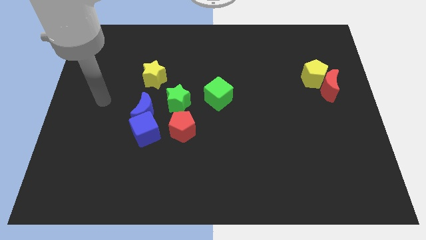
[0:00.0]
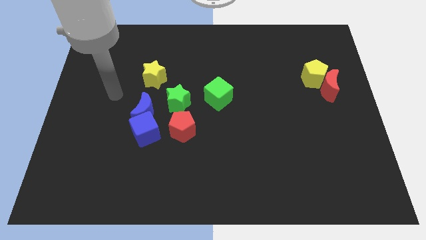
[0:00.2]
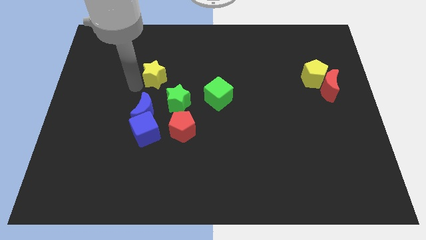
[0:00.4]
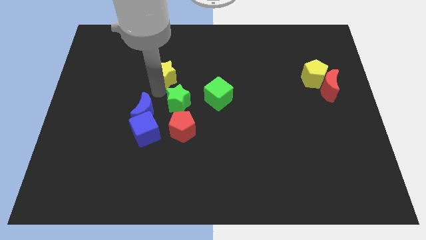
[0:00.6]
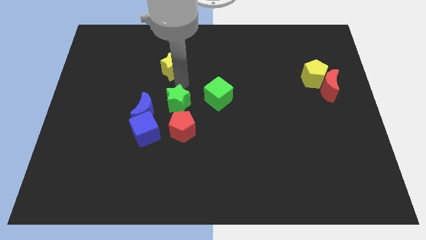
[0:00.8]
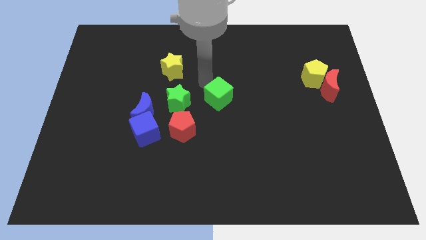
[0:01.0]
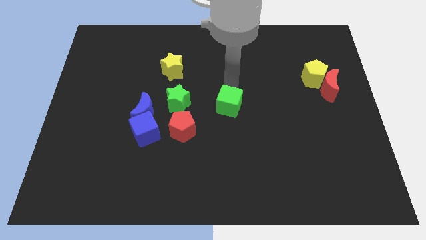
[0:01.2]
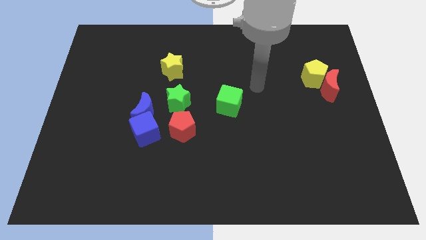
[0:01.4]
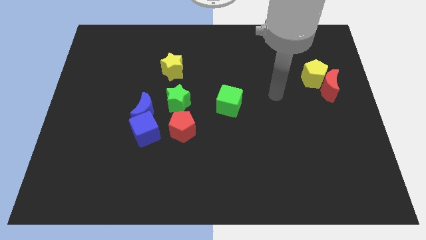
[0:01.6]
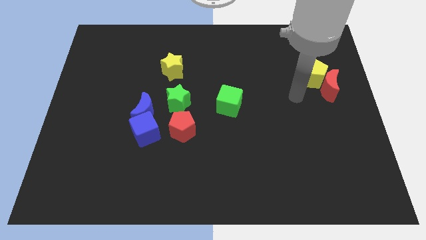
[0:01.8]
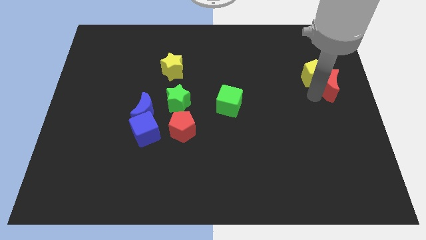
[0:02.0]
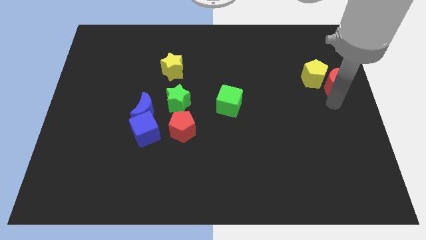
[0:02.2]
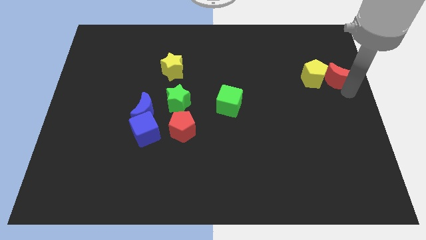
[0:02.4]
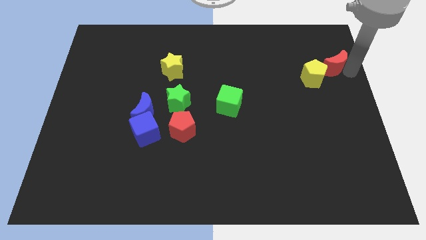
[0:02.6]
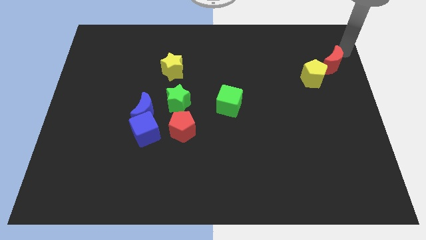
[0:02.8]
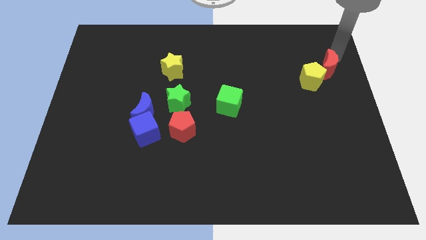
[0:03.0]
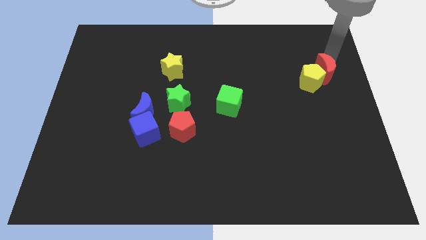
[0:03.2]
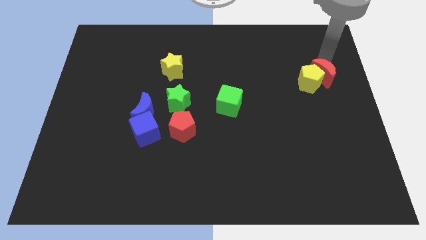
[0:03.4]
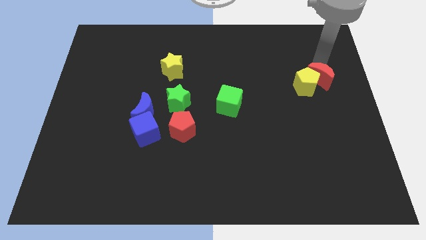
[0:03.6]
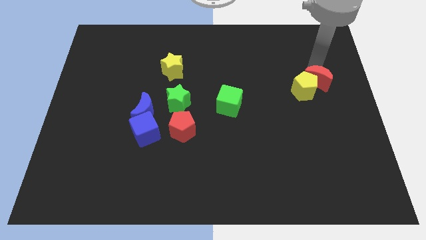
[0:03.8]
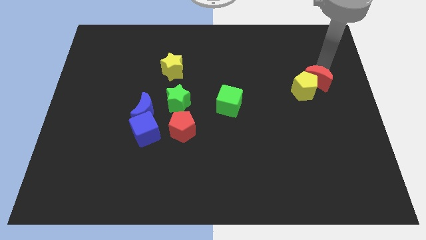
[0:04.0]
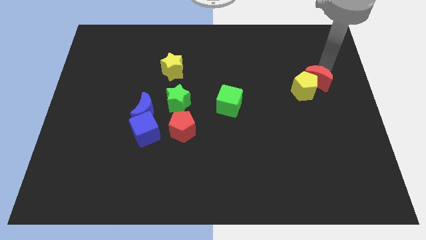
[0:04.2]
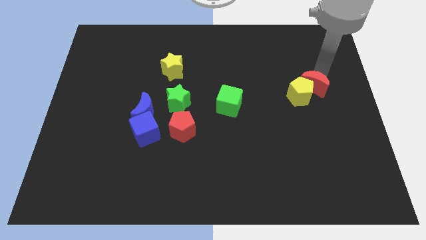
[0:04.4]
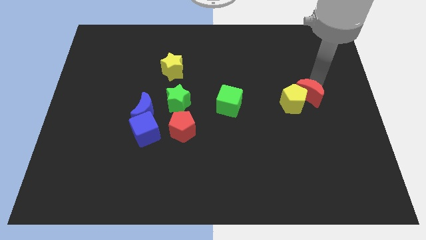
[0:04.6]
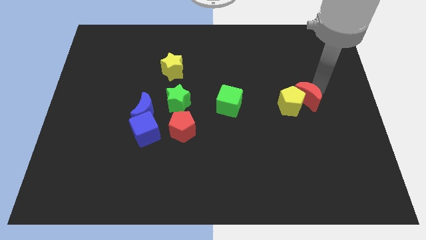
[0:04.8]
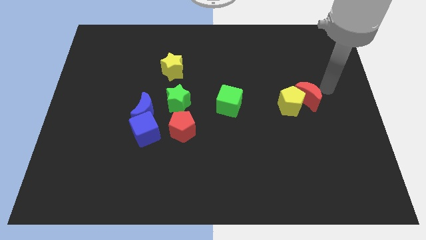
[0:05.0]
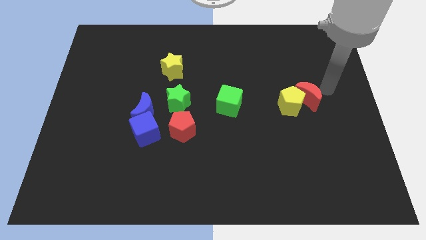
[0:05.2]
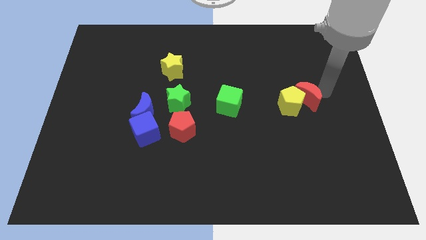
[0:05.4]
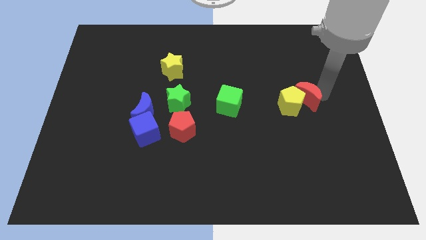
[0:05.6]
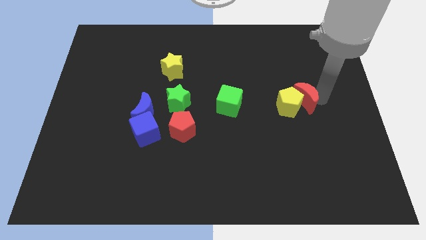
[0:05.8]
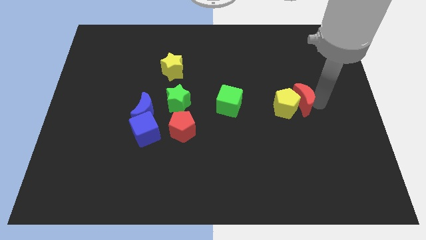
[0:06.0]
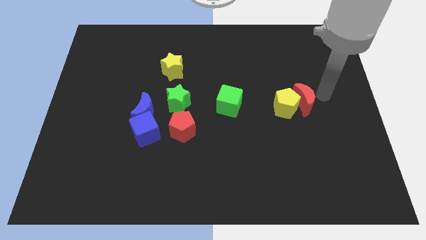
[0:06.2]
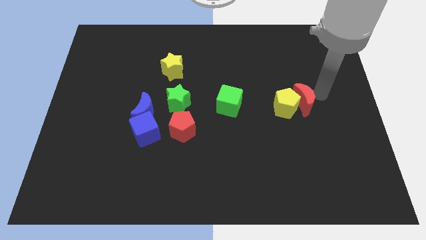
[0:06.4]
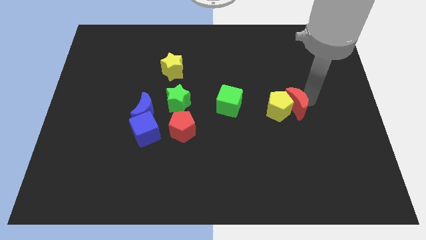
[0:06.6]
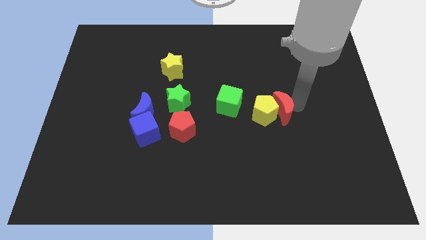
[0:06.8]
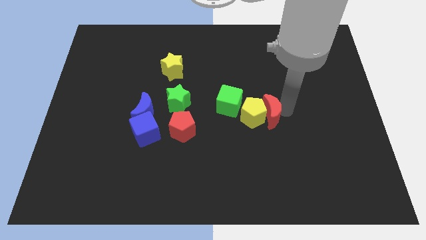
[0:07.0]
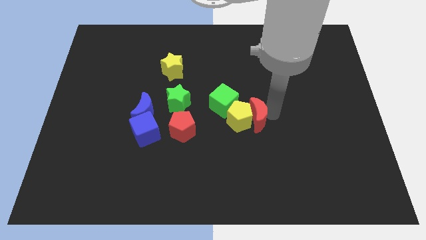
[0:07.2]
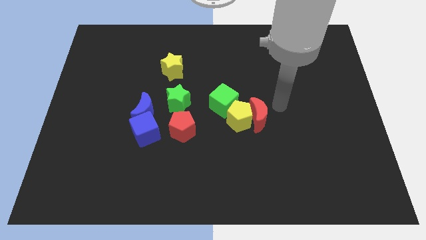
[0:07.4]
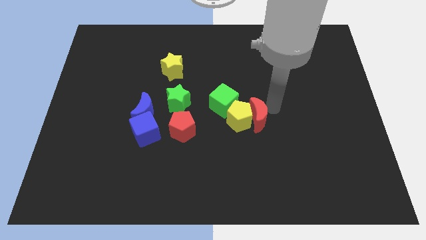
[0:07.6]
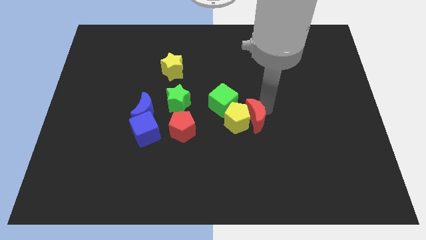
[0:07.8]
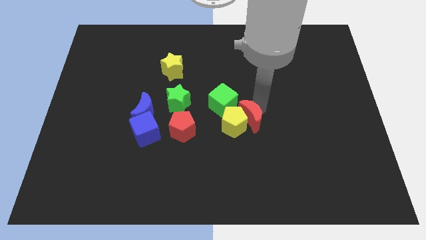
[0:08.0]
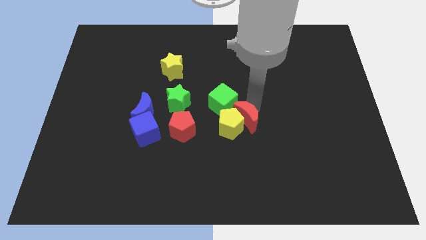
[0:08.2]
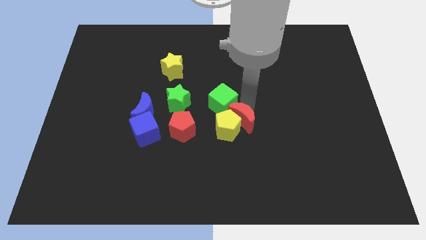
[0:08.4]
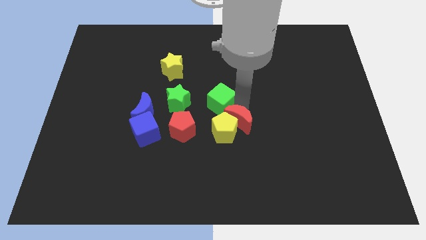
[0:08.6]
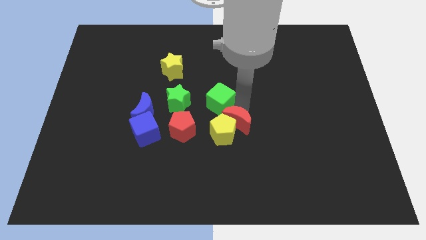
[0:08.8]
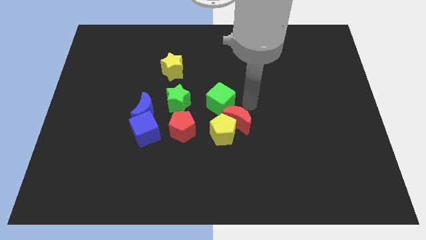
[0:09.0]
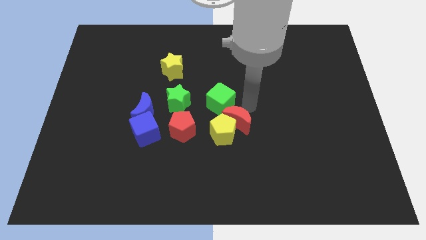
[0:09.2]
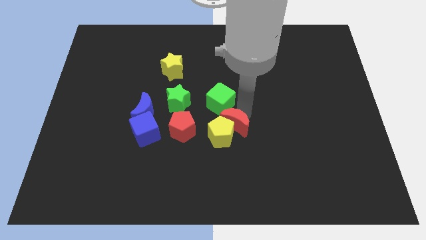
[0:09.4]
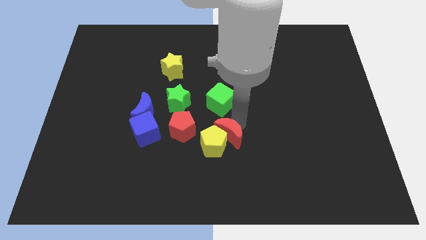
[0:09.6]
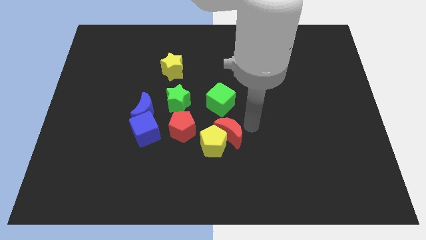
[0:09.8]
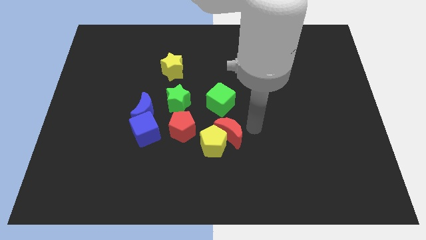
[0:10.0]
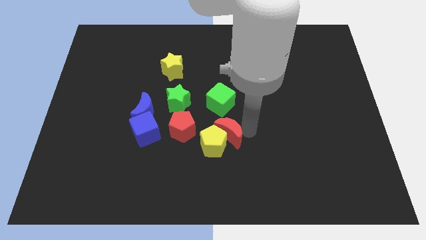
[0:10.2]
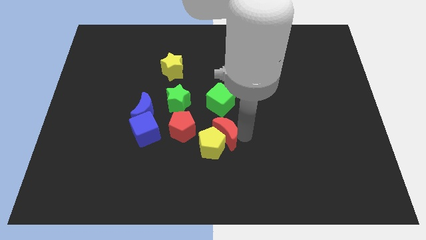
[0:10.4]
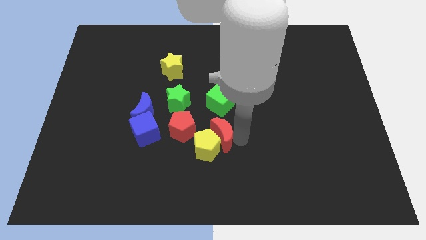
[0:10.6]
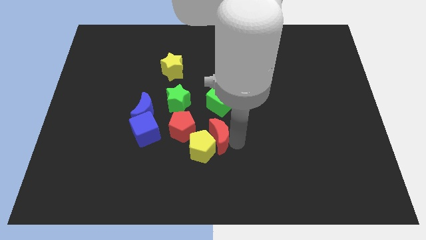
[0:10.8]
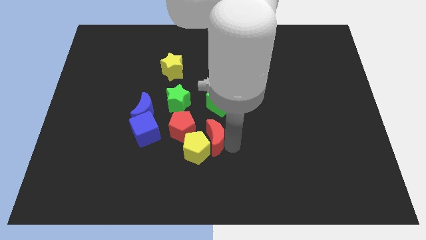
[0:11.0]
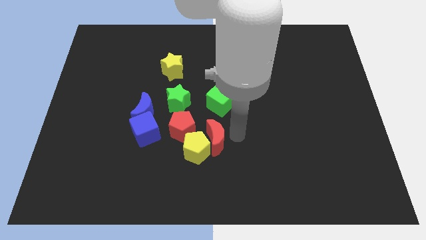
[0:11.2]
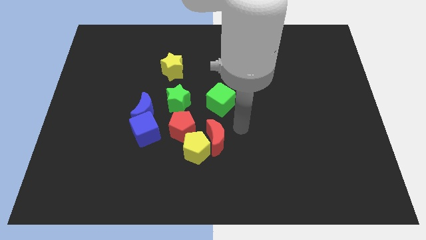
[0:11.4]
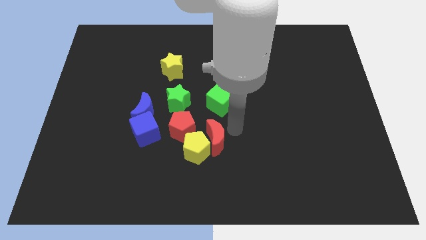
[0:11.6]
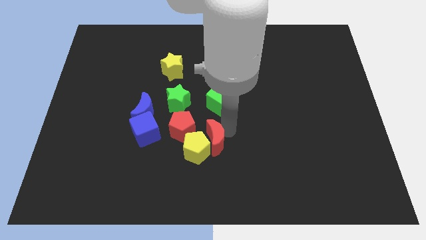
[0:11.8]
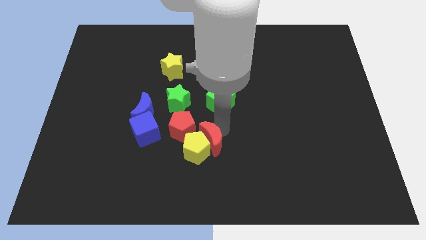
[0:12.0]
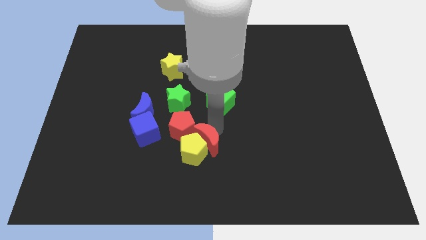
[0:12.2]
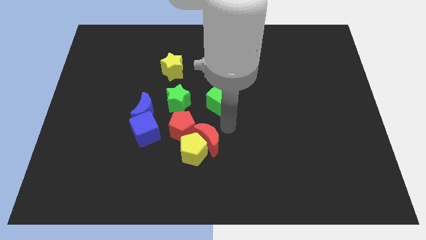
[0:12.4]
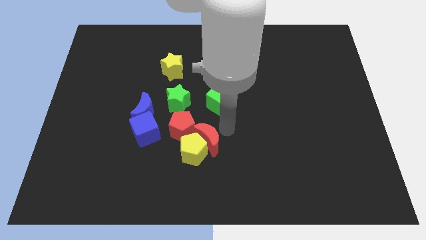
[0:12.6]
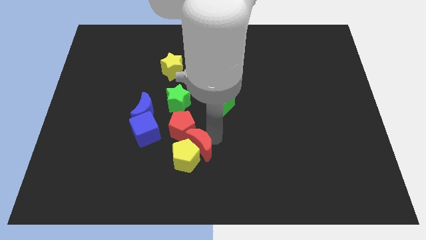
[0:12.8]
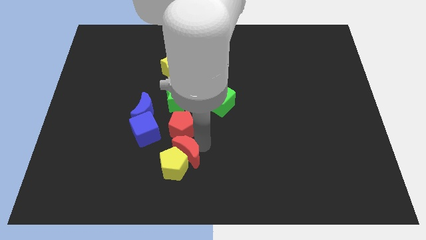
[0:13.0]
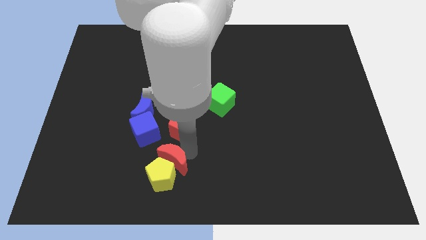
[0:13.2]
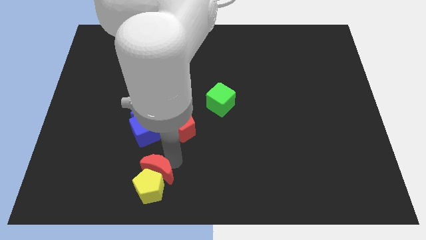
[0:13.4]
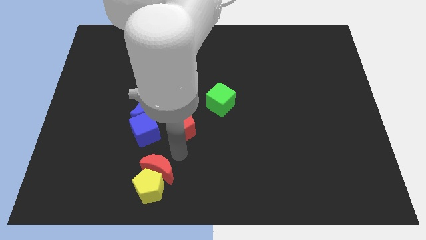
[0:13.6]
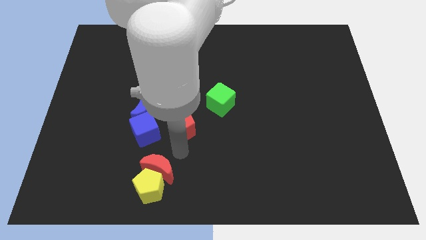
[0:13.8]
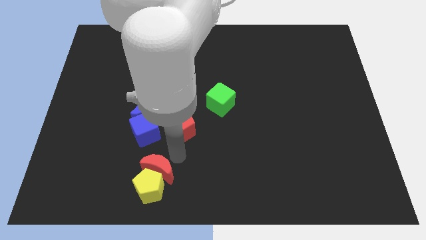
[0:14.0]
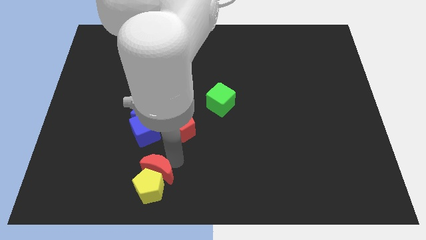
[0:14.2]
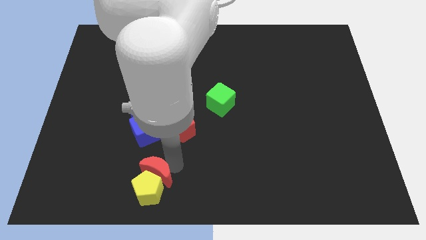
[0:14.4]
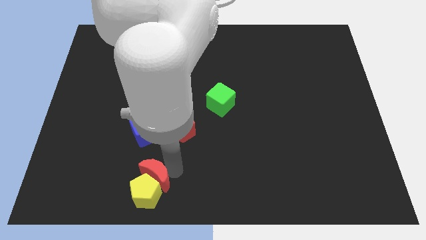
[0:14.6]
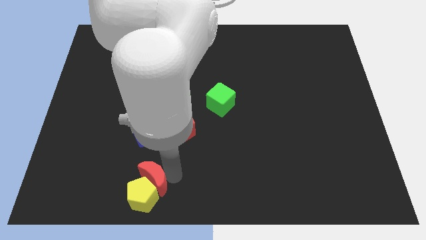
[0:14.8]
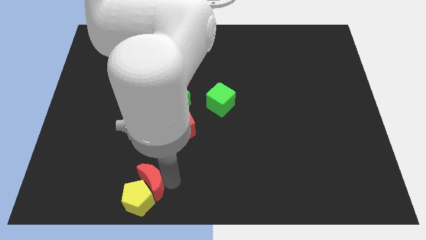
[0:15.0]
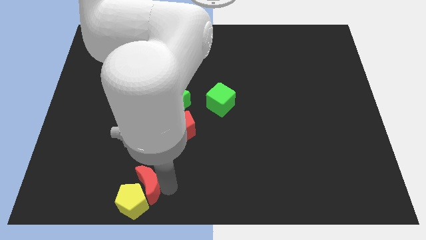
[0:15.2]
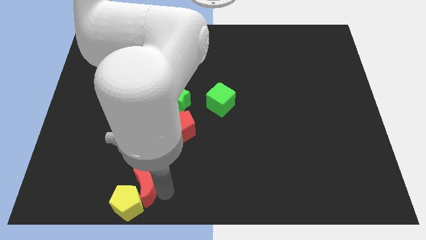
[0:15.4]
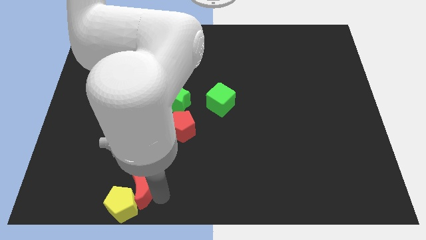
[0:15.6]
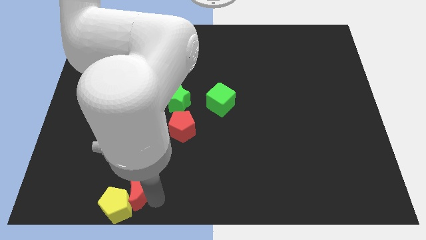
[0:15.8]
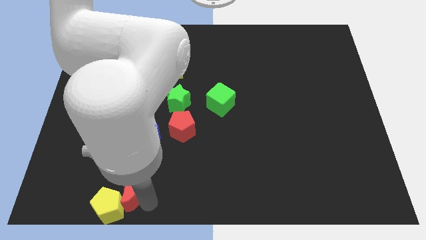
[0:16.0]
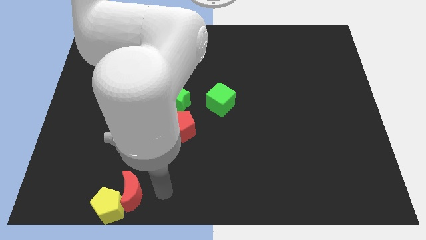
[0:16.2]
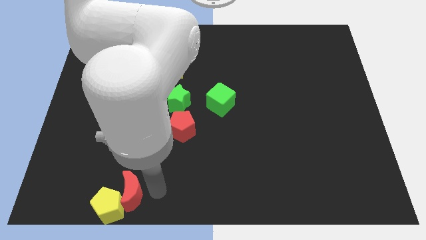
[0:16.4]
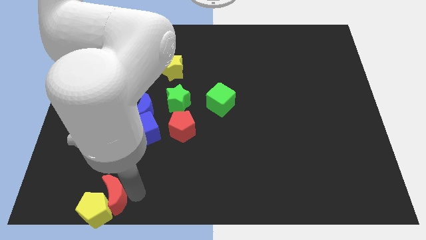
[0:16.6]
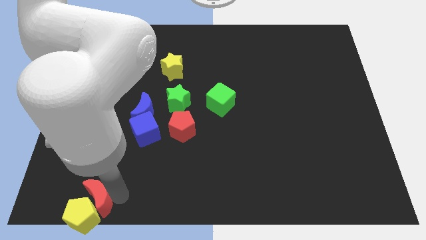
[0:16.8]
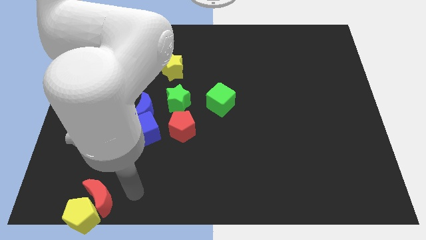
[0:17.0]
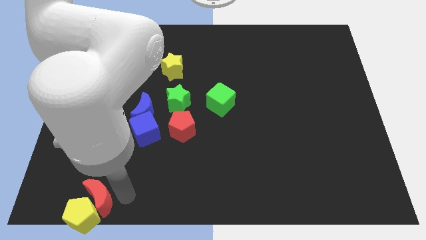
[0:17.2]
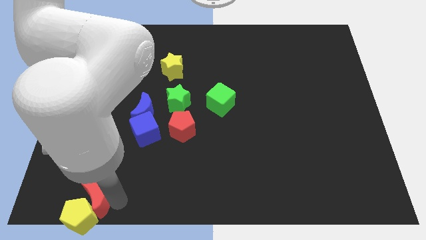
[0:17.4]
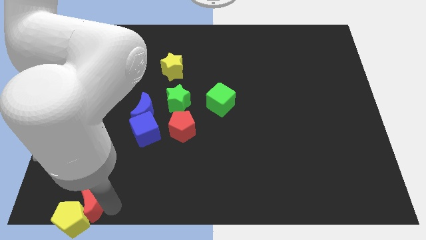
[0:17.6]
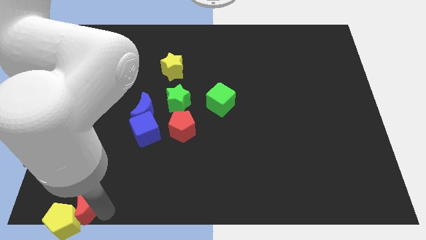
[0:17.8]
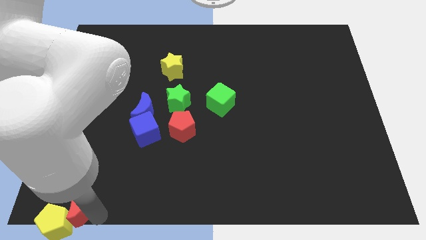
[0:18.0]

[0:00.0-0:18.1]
put the red moon to the bottom left
